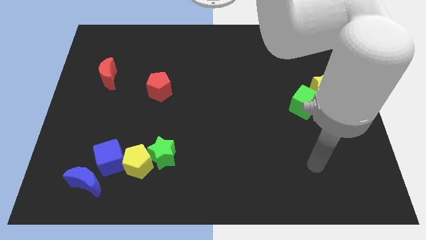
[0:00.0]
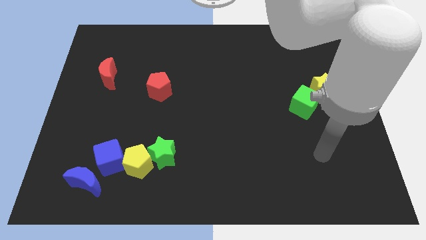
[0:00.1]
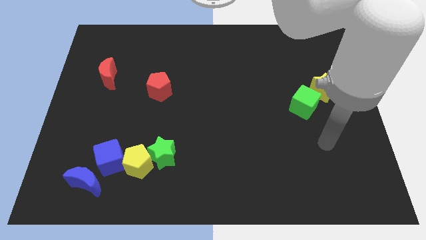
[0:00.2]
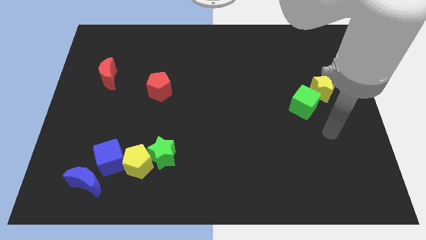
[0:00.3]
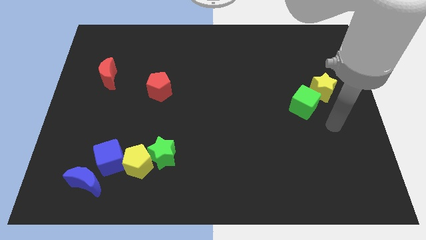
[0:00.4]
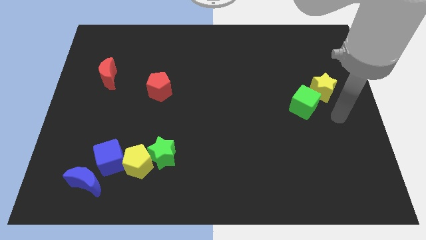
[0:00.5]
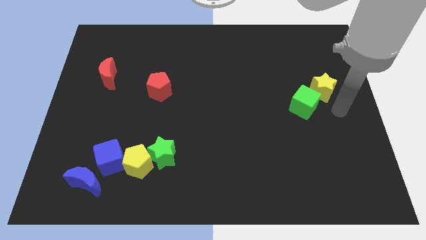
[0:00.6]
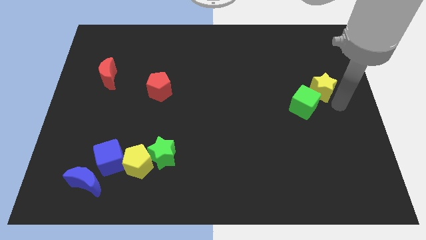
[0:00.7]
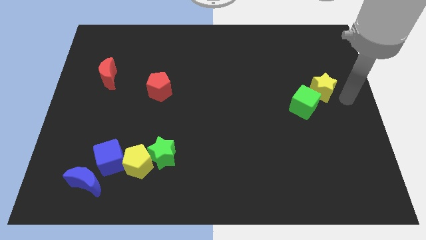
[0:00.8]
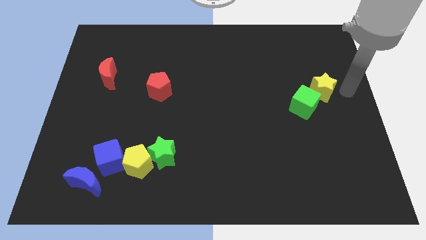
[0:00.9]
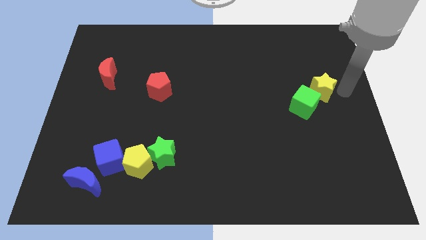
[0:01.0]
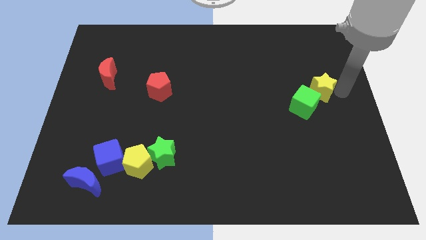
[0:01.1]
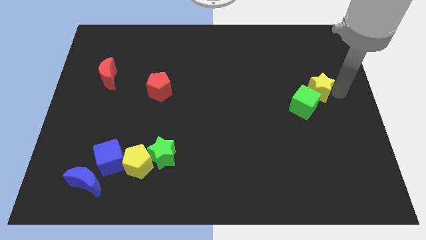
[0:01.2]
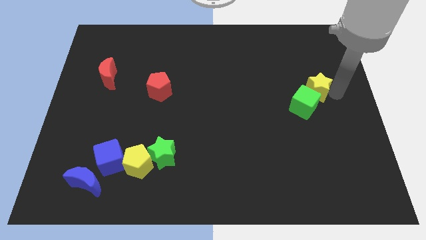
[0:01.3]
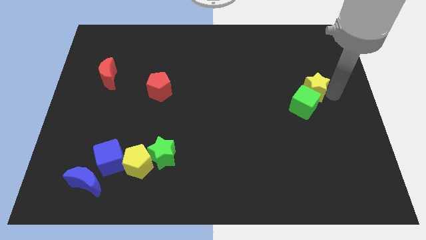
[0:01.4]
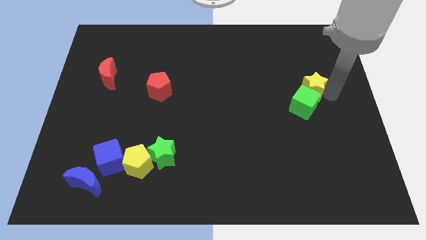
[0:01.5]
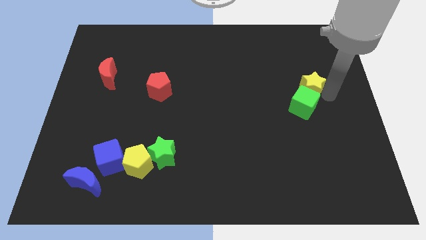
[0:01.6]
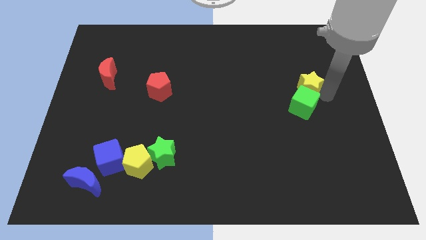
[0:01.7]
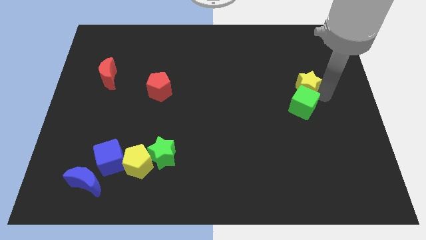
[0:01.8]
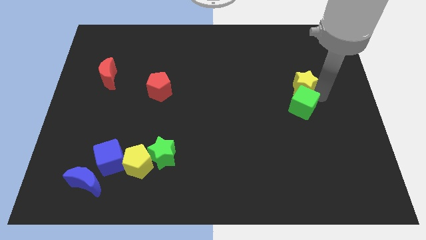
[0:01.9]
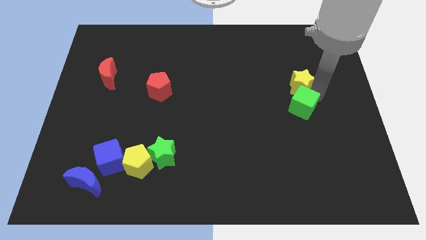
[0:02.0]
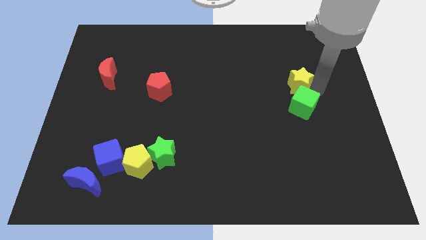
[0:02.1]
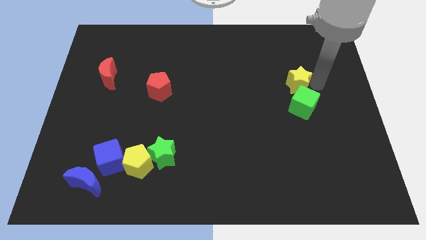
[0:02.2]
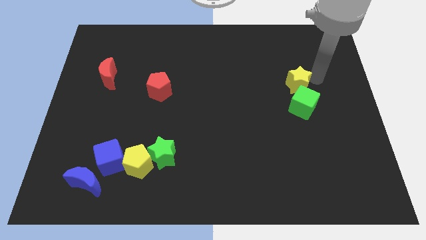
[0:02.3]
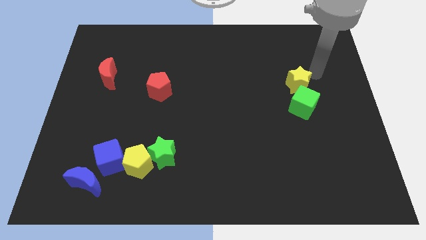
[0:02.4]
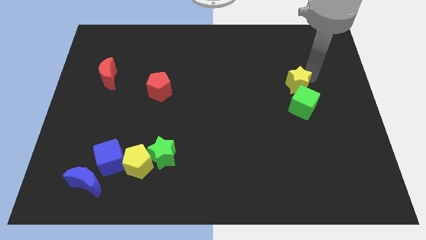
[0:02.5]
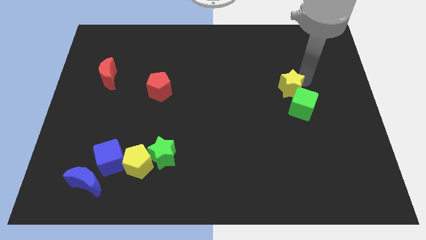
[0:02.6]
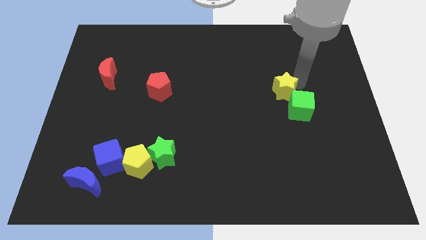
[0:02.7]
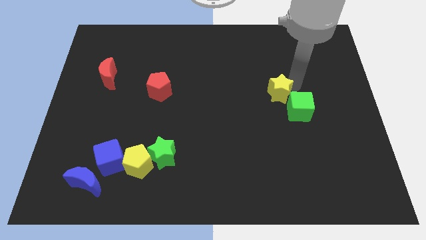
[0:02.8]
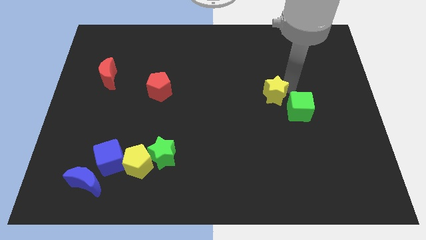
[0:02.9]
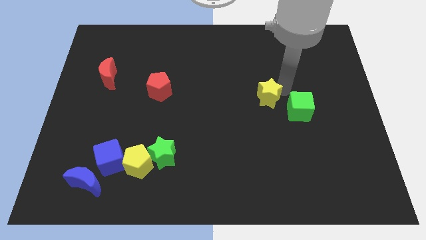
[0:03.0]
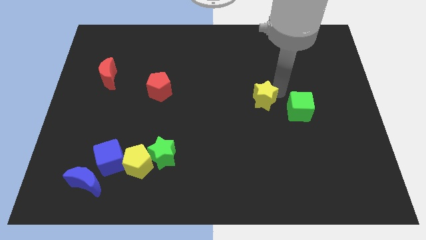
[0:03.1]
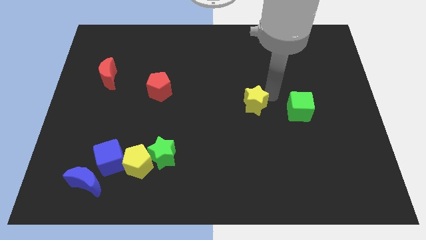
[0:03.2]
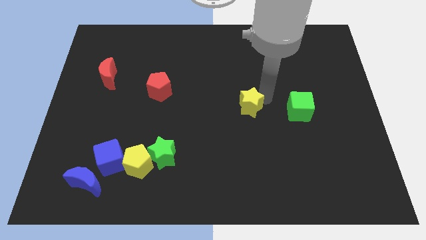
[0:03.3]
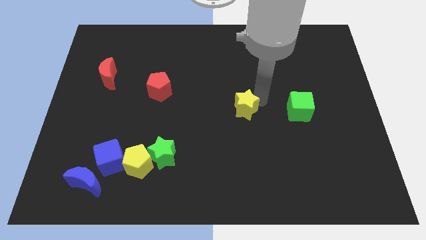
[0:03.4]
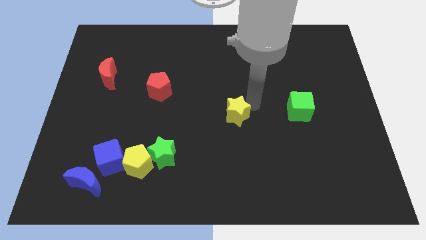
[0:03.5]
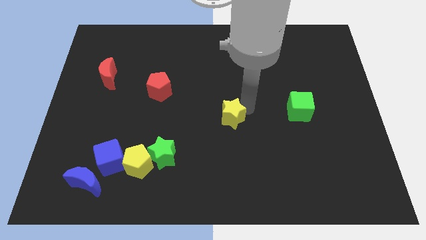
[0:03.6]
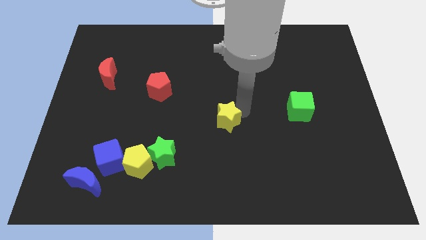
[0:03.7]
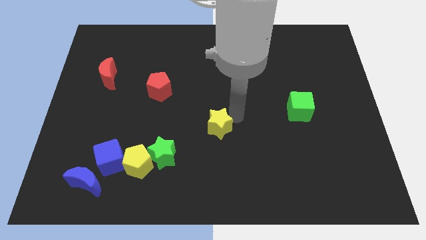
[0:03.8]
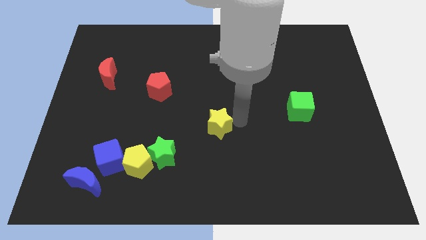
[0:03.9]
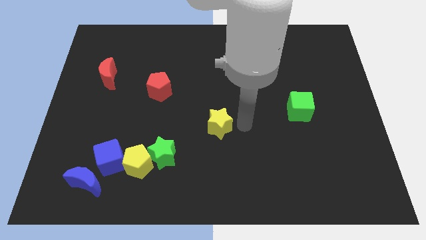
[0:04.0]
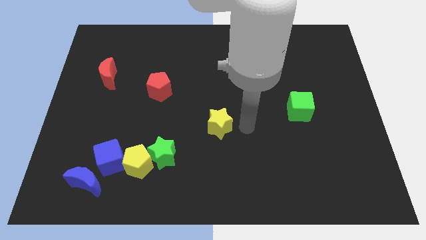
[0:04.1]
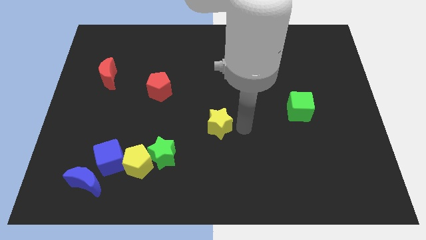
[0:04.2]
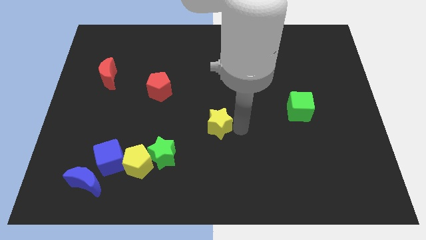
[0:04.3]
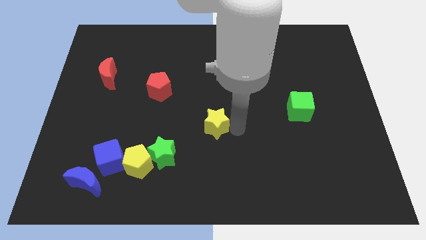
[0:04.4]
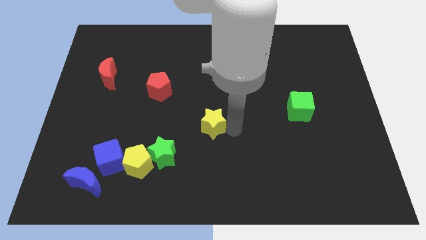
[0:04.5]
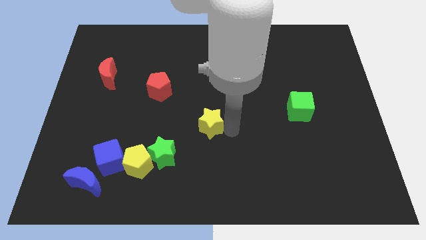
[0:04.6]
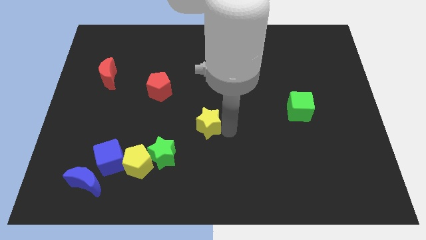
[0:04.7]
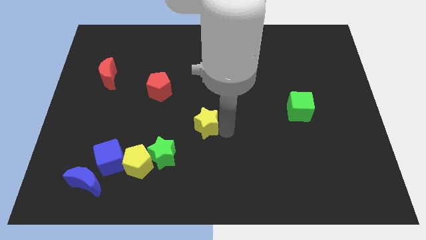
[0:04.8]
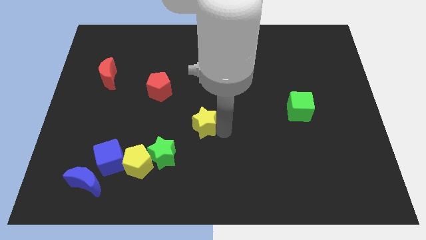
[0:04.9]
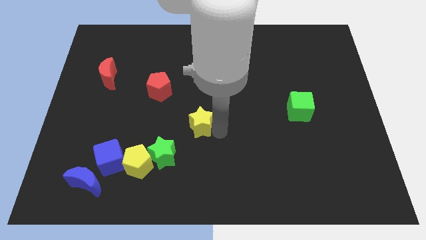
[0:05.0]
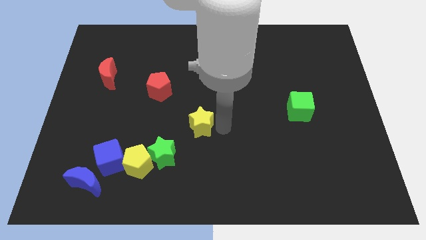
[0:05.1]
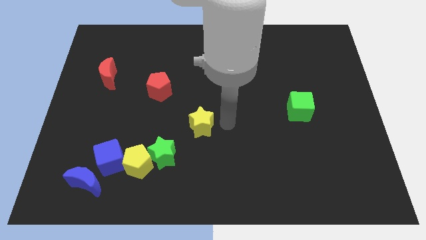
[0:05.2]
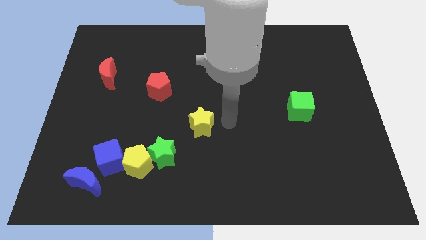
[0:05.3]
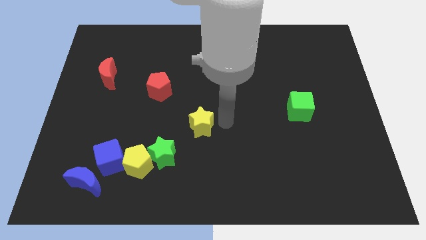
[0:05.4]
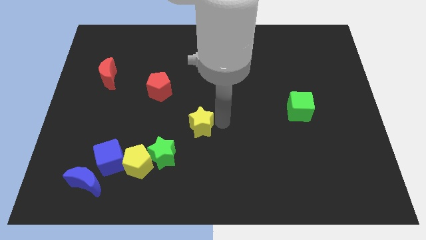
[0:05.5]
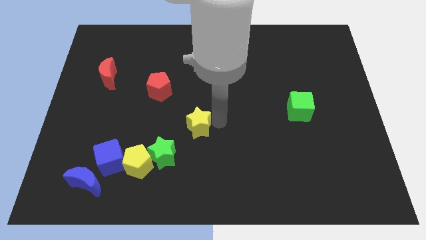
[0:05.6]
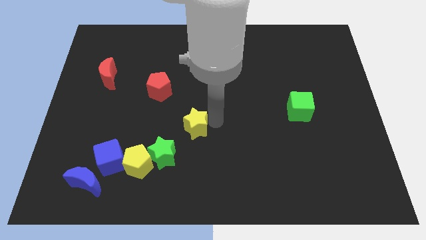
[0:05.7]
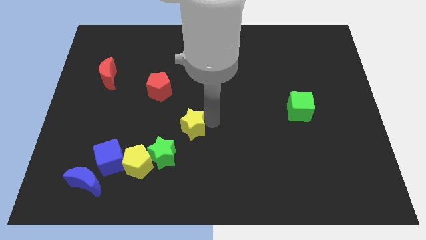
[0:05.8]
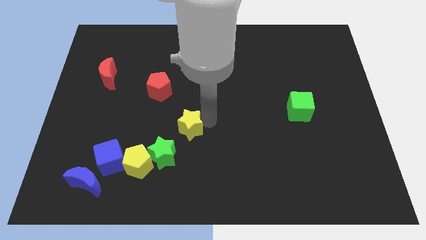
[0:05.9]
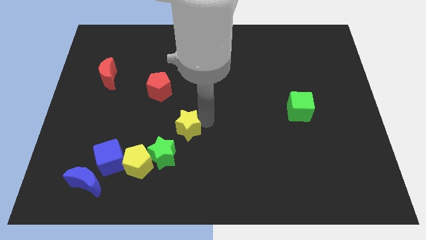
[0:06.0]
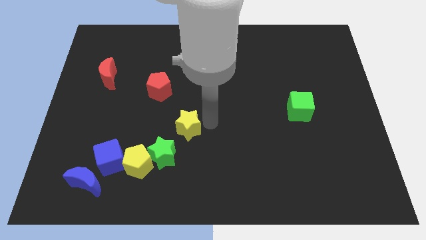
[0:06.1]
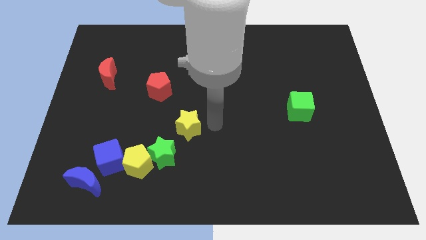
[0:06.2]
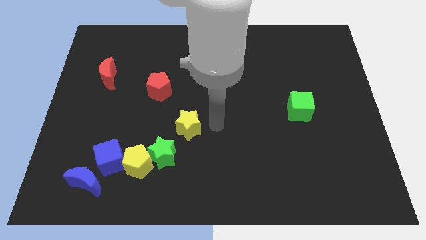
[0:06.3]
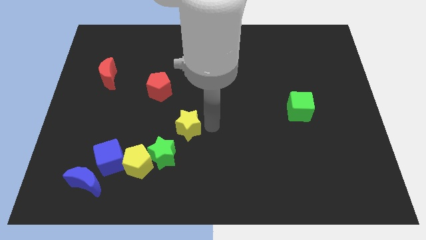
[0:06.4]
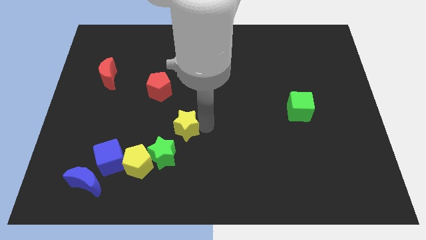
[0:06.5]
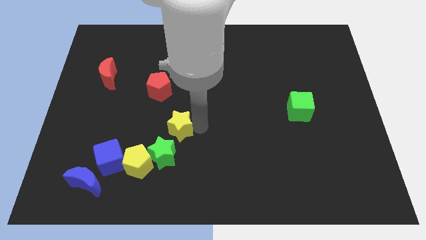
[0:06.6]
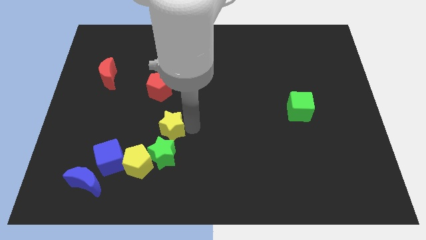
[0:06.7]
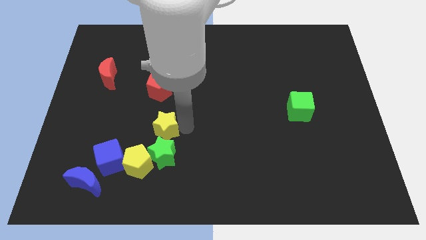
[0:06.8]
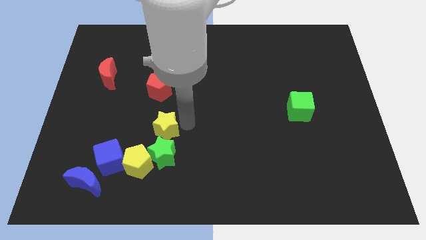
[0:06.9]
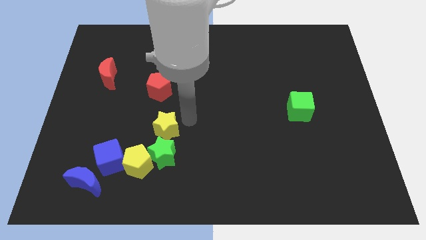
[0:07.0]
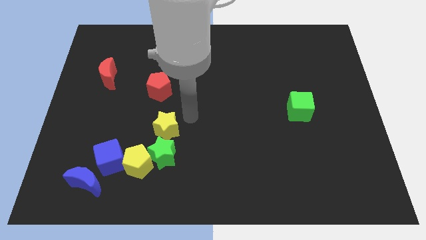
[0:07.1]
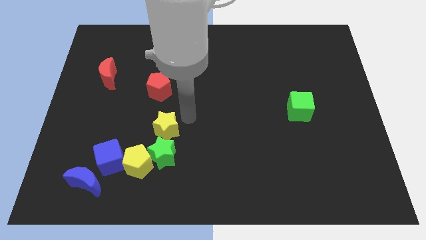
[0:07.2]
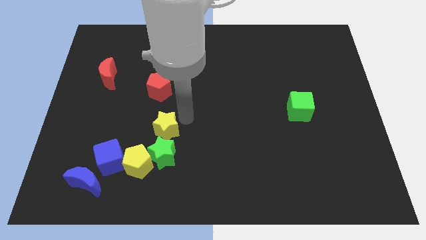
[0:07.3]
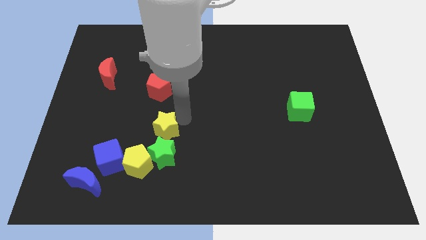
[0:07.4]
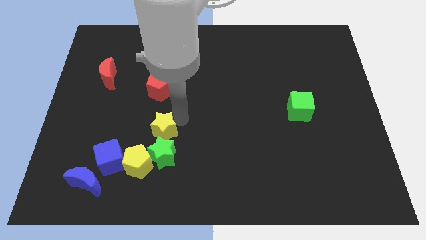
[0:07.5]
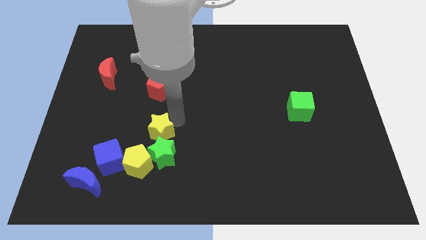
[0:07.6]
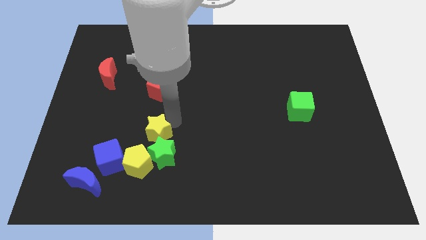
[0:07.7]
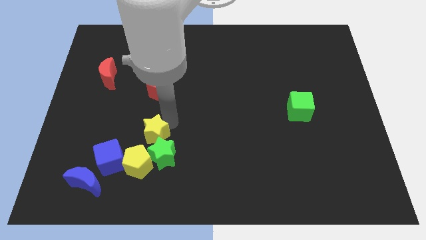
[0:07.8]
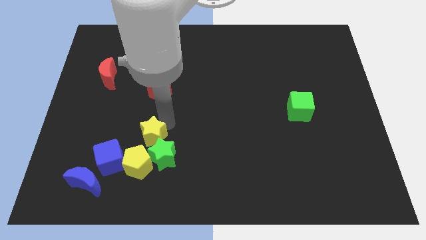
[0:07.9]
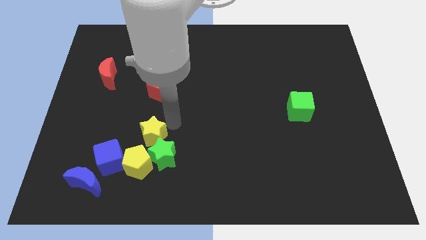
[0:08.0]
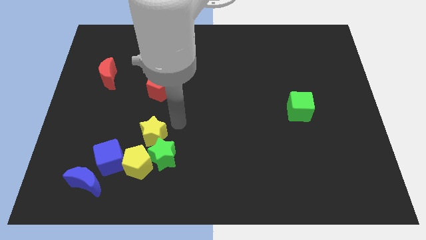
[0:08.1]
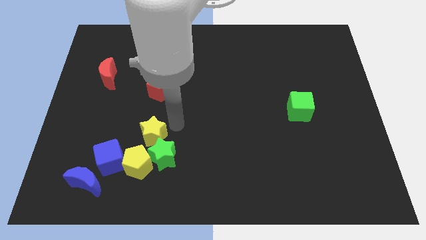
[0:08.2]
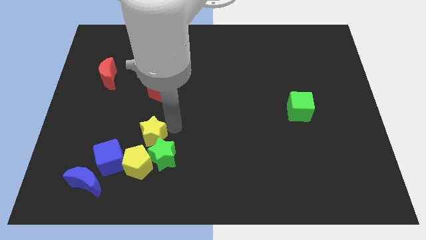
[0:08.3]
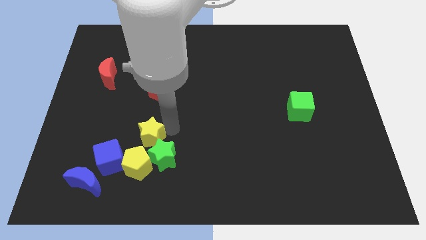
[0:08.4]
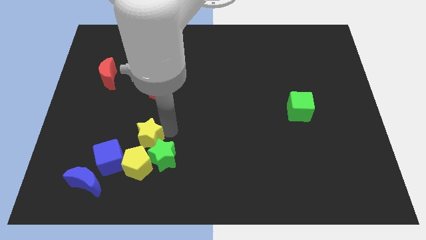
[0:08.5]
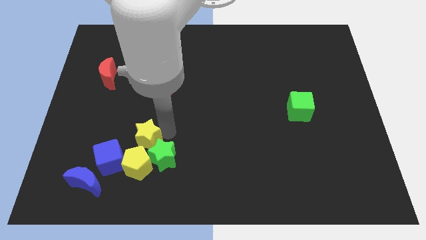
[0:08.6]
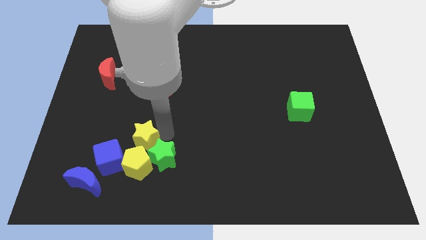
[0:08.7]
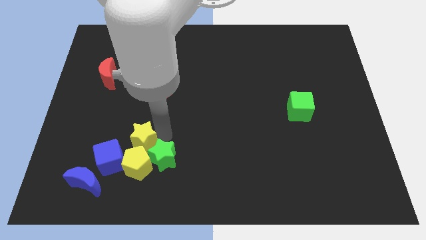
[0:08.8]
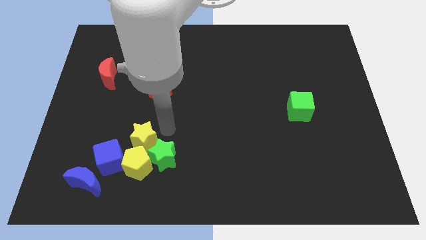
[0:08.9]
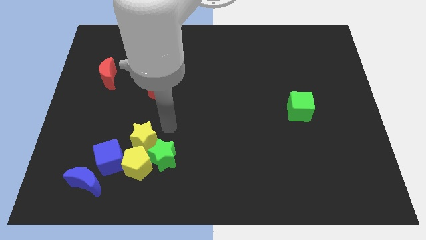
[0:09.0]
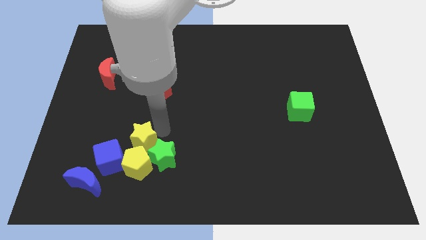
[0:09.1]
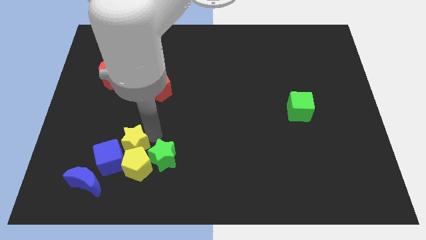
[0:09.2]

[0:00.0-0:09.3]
push the yellow star to the blue cube
